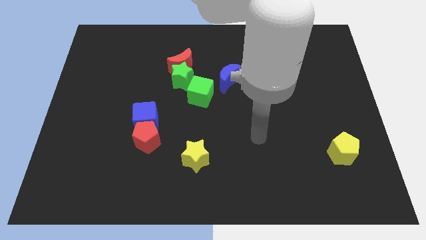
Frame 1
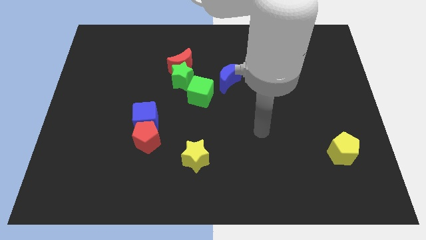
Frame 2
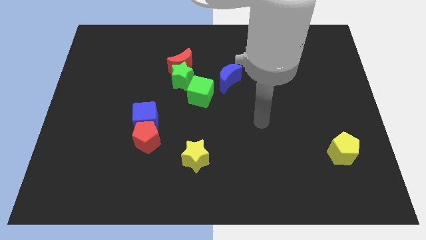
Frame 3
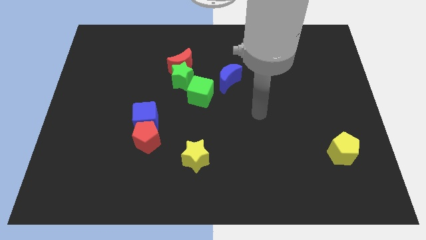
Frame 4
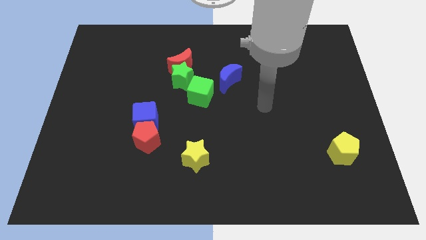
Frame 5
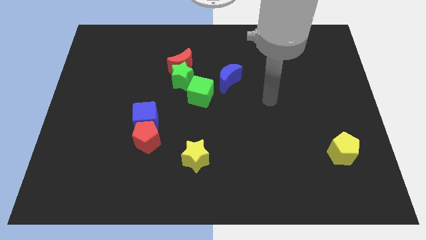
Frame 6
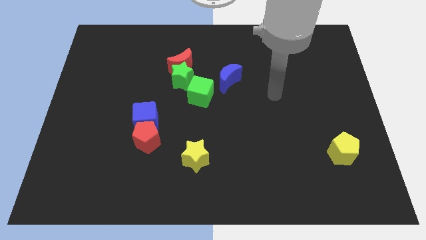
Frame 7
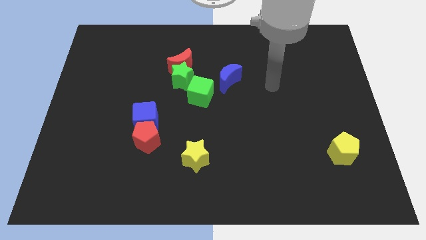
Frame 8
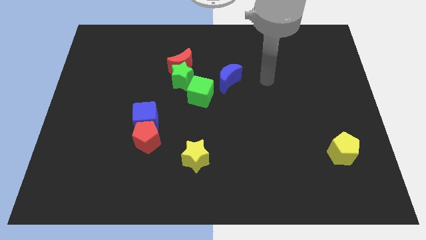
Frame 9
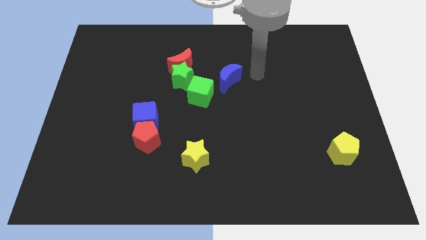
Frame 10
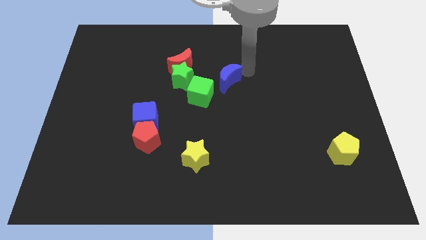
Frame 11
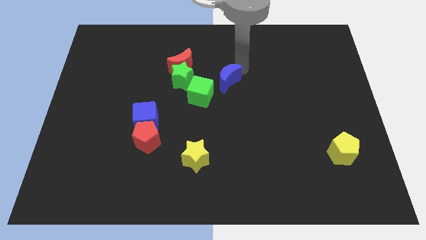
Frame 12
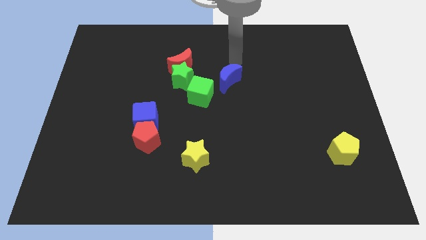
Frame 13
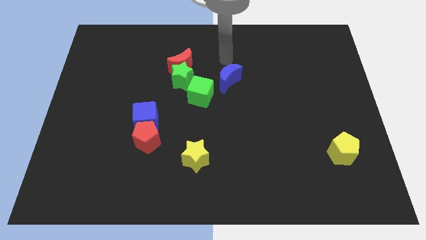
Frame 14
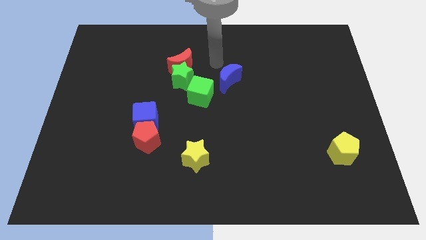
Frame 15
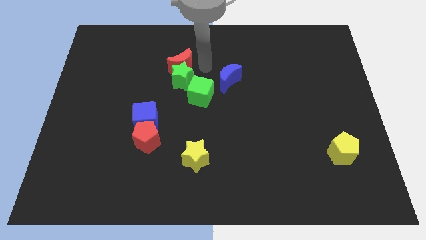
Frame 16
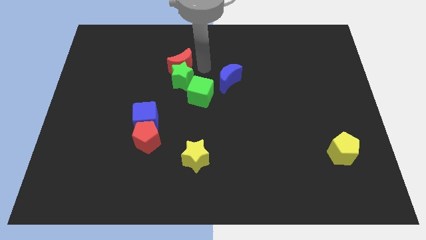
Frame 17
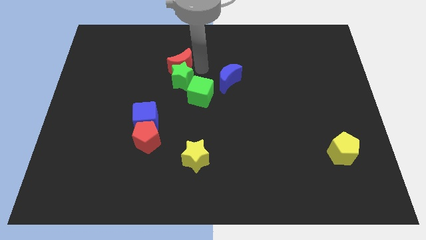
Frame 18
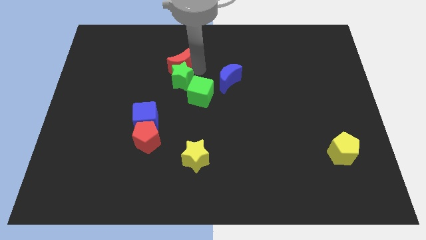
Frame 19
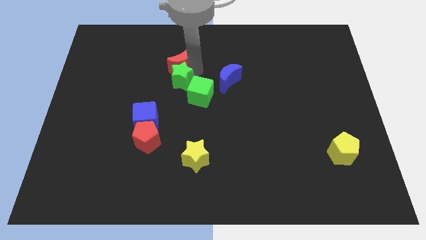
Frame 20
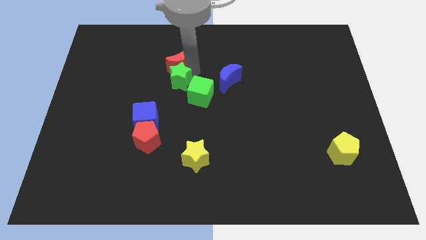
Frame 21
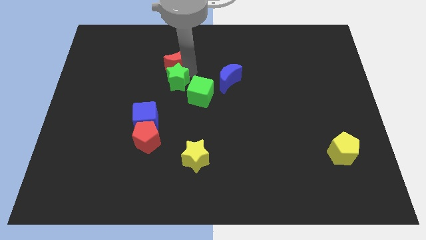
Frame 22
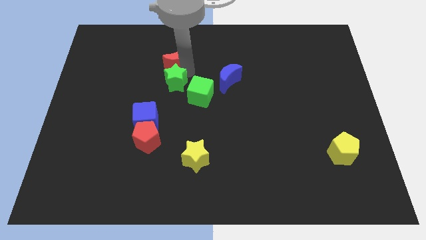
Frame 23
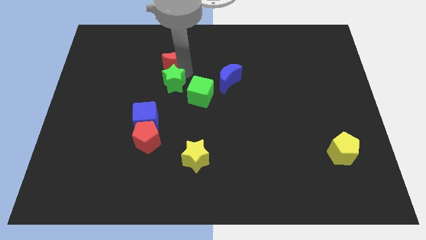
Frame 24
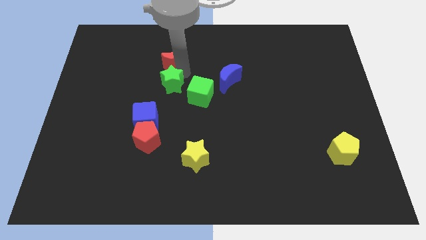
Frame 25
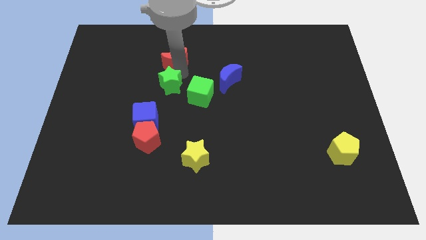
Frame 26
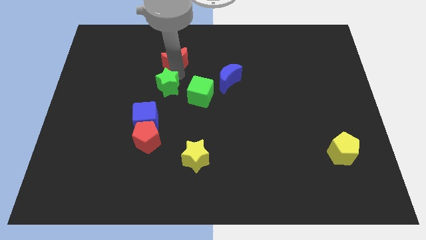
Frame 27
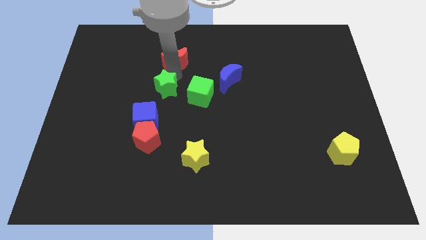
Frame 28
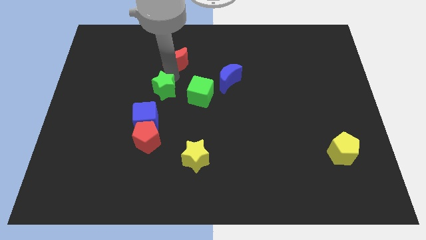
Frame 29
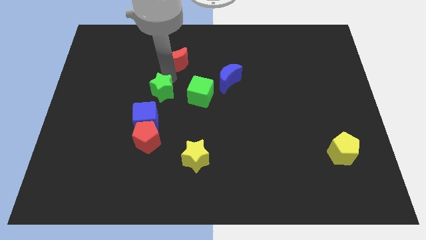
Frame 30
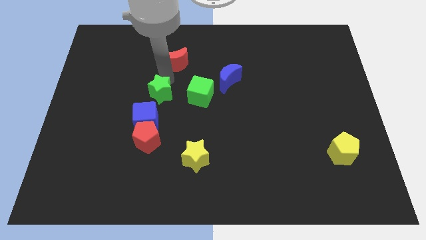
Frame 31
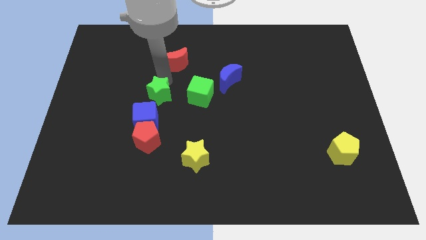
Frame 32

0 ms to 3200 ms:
push the green star diagonally downwards and to the left a little

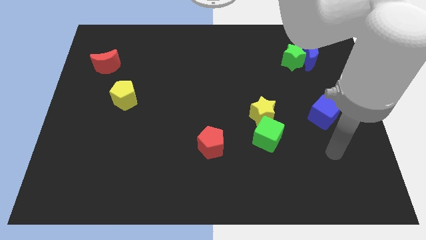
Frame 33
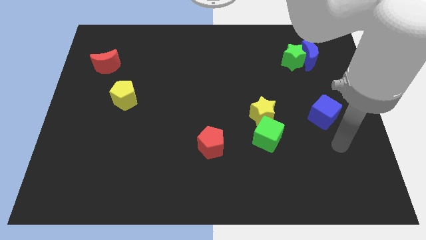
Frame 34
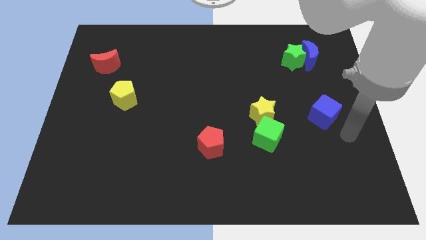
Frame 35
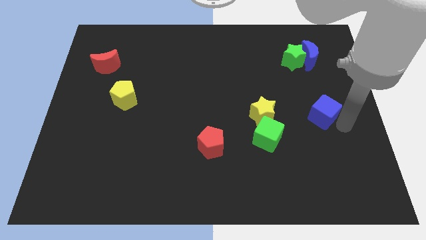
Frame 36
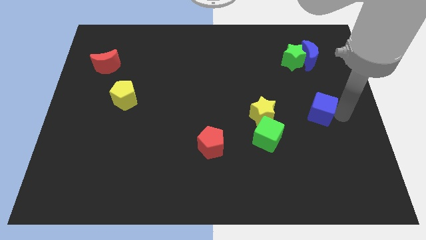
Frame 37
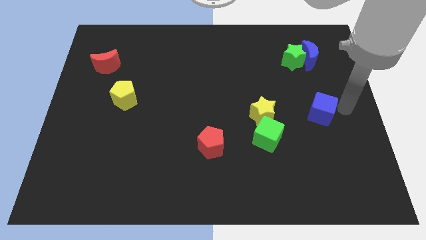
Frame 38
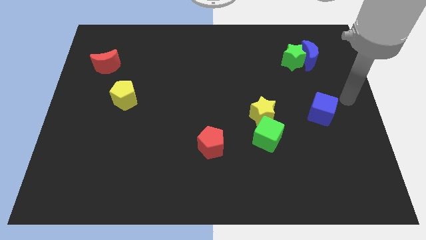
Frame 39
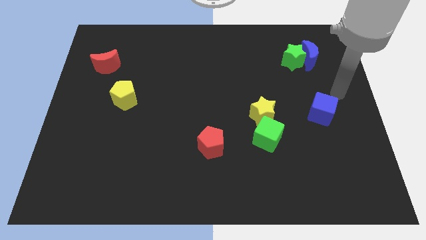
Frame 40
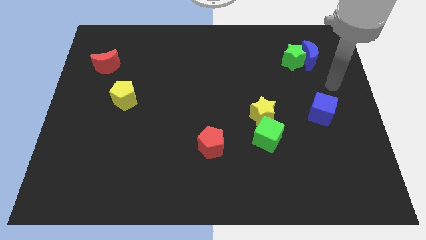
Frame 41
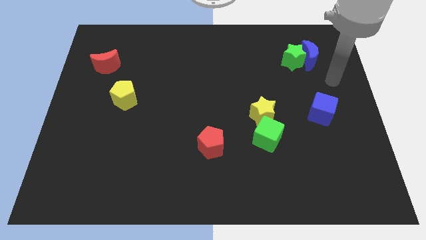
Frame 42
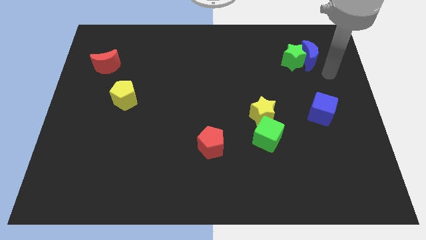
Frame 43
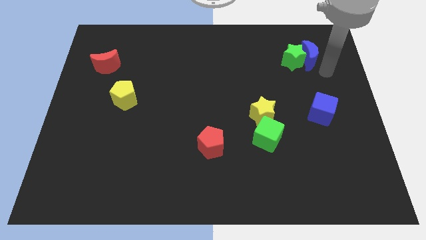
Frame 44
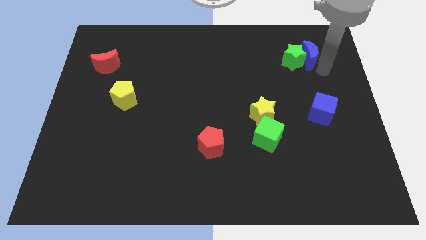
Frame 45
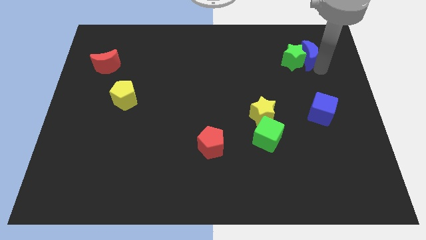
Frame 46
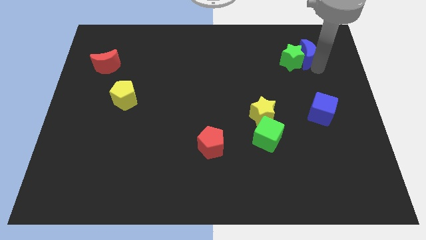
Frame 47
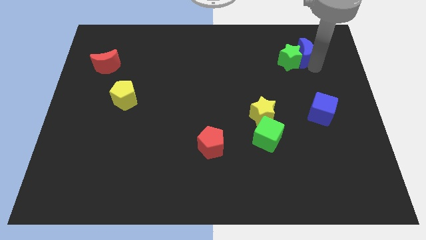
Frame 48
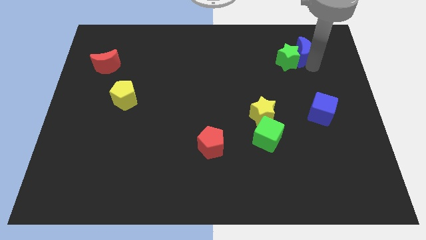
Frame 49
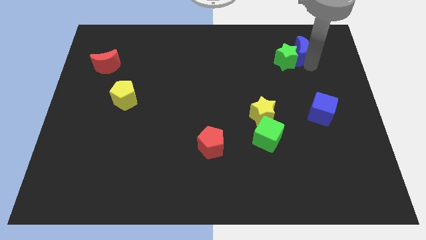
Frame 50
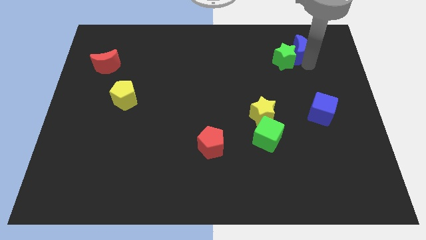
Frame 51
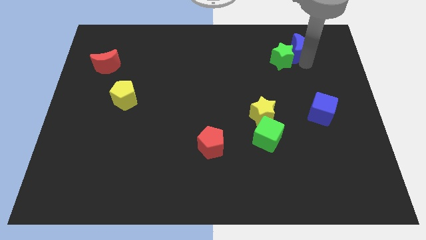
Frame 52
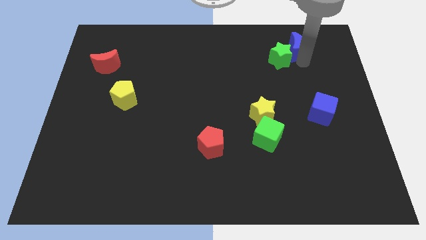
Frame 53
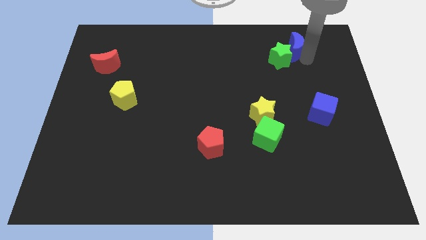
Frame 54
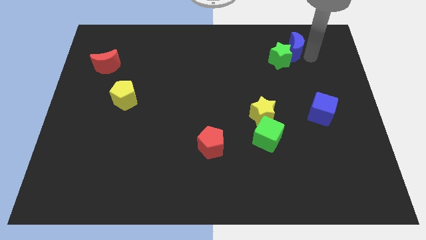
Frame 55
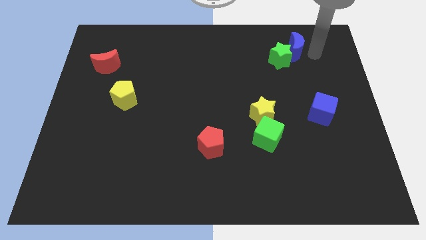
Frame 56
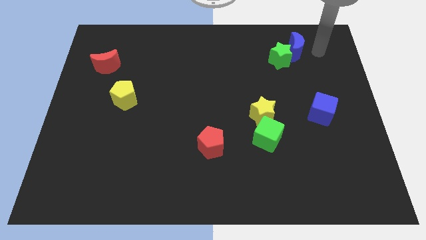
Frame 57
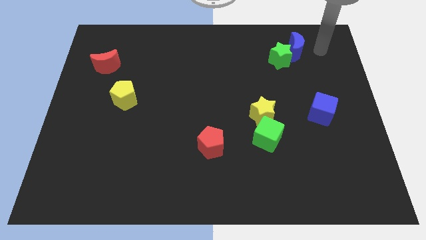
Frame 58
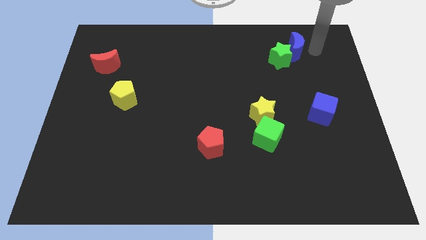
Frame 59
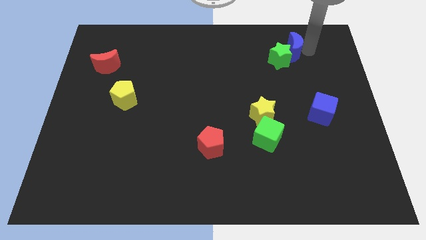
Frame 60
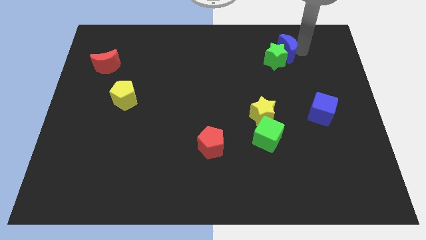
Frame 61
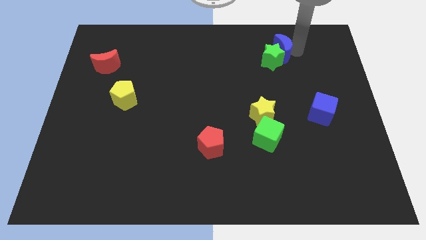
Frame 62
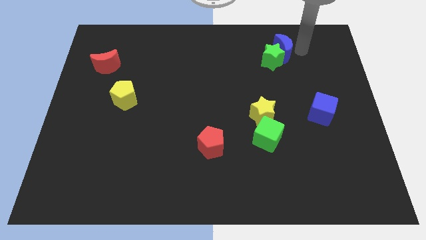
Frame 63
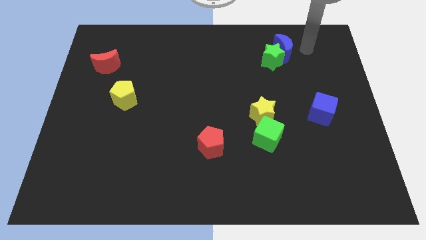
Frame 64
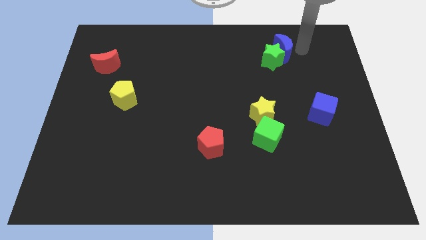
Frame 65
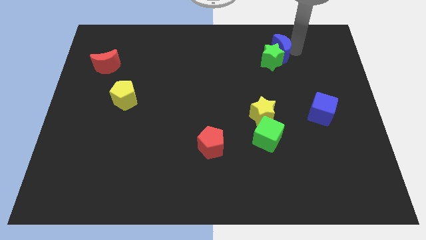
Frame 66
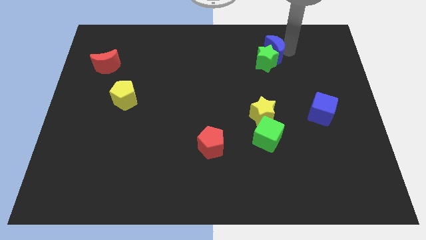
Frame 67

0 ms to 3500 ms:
slide the blue moon a little to the left

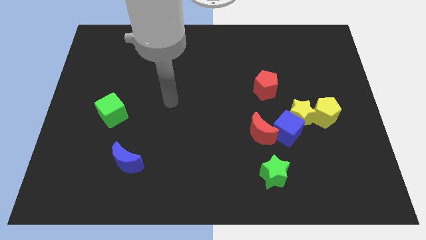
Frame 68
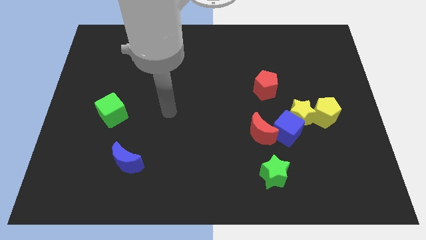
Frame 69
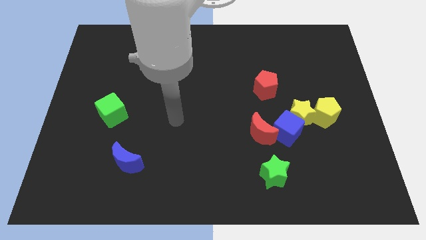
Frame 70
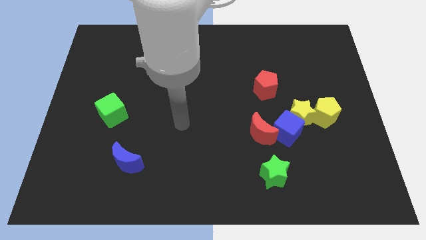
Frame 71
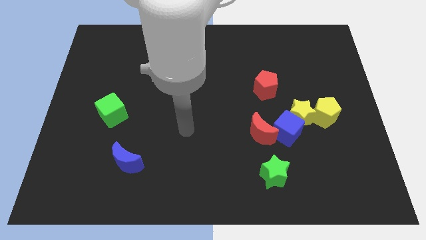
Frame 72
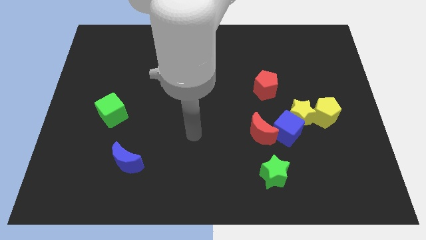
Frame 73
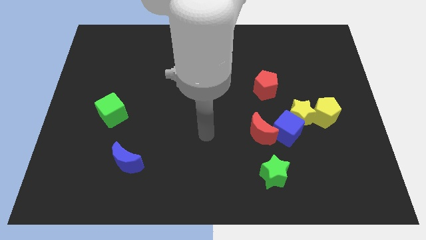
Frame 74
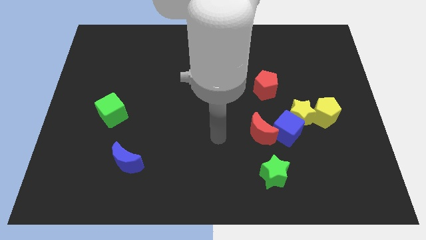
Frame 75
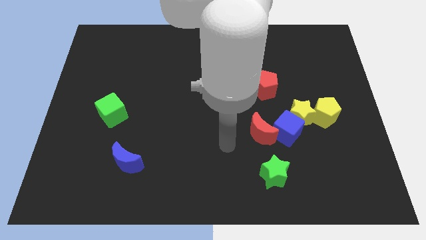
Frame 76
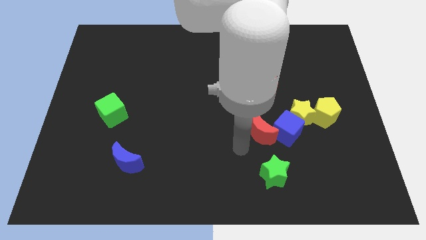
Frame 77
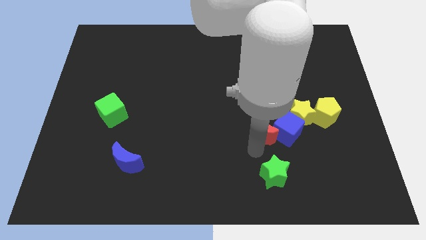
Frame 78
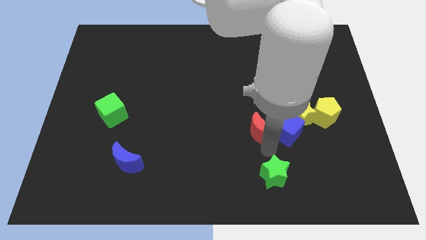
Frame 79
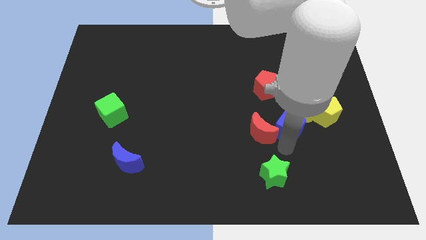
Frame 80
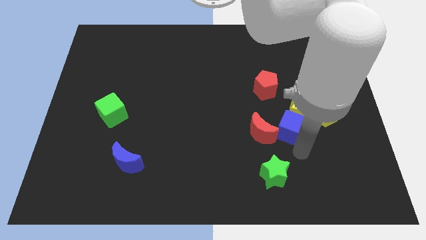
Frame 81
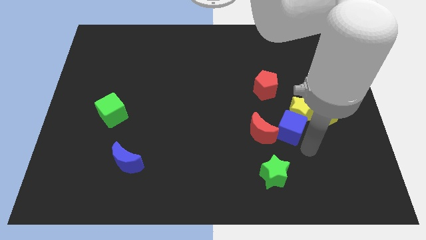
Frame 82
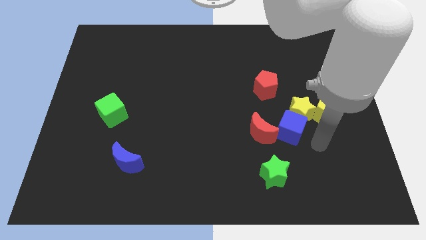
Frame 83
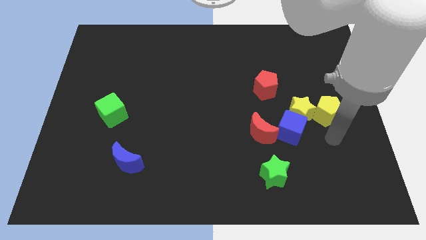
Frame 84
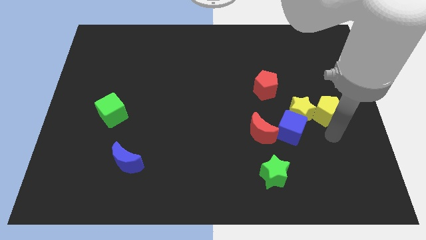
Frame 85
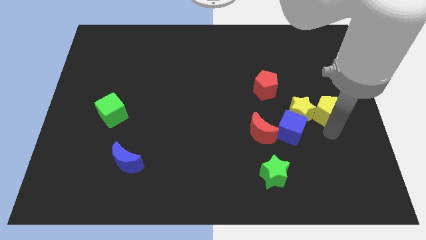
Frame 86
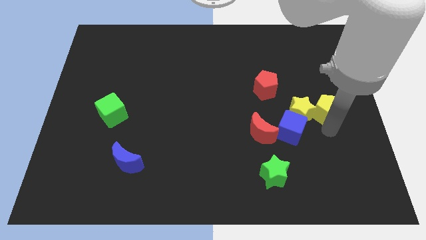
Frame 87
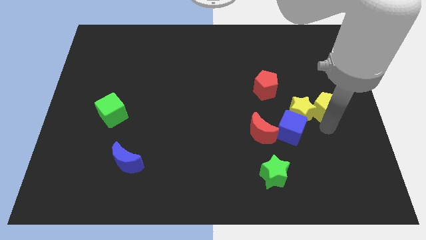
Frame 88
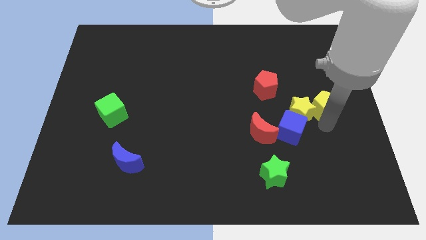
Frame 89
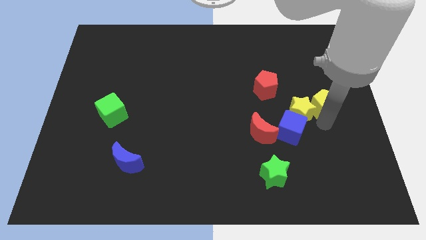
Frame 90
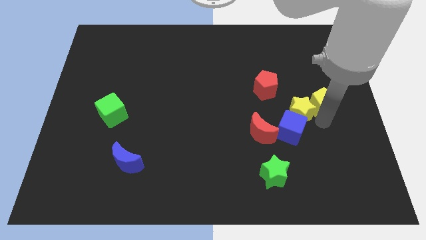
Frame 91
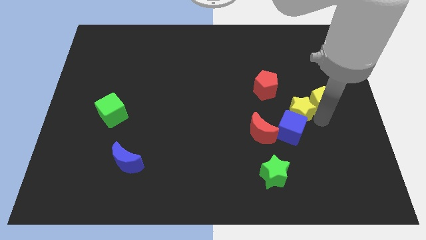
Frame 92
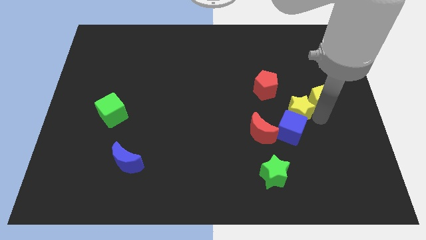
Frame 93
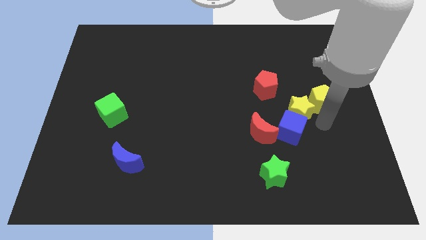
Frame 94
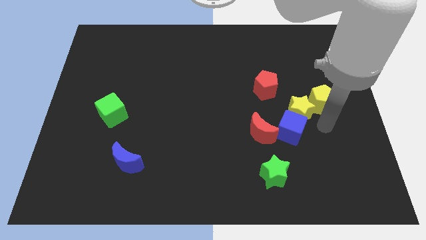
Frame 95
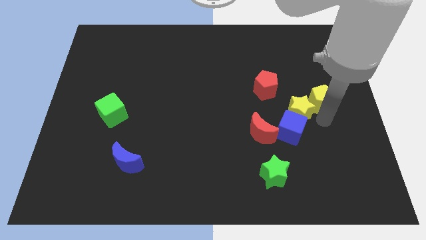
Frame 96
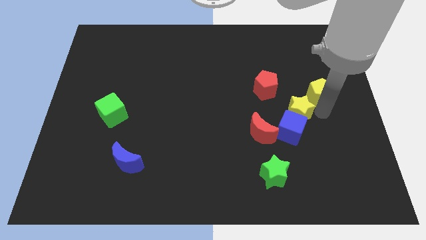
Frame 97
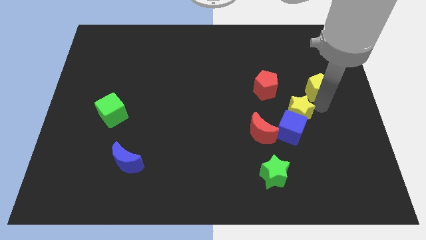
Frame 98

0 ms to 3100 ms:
slightly push the yellow pentagon upwards
